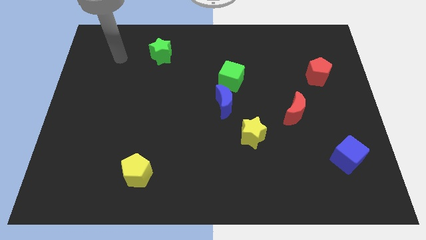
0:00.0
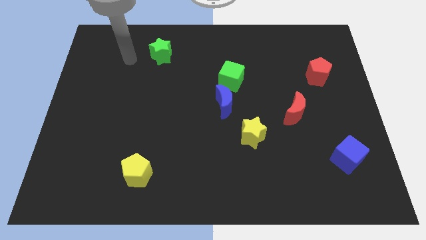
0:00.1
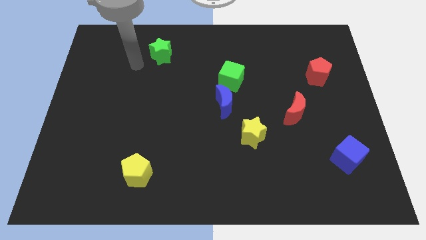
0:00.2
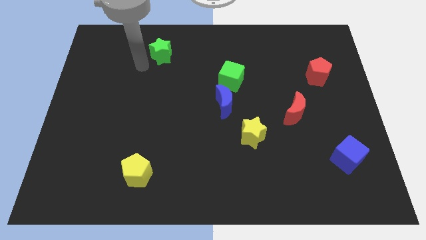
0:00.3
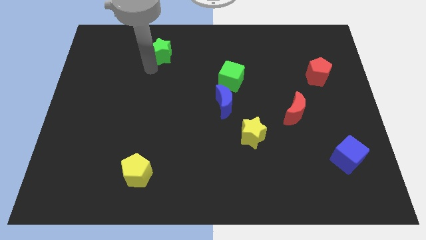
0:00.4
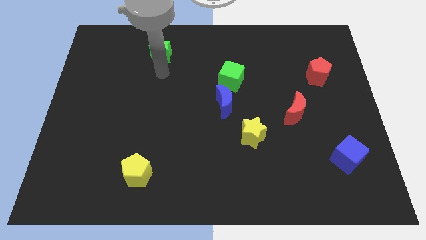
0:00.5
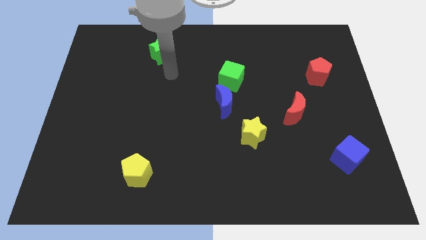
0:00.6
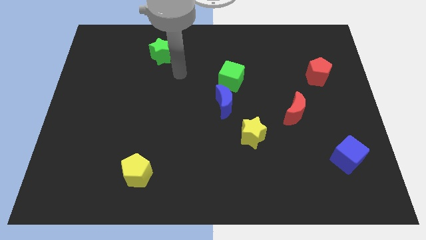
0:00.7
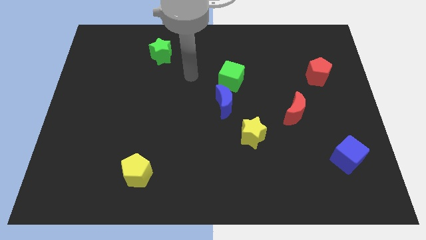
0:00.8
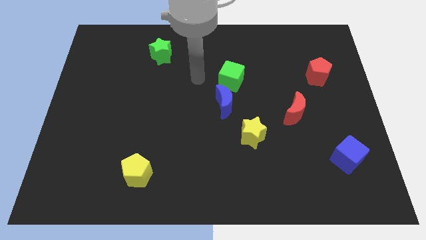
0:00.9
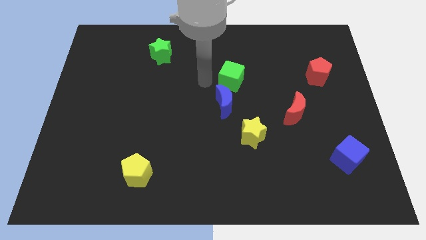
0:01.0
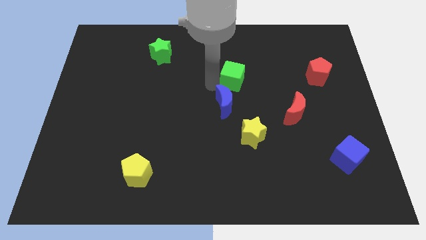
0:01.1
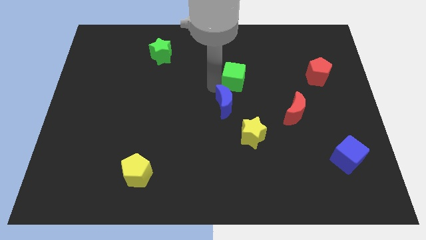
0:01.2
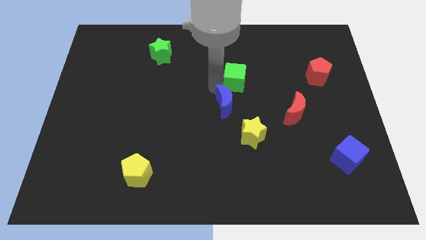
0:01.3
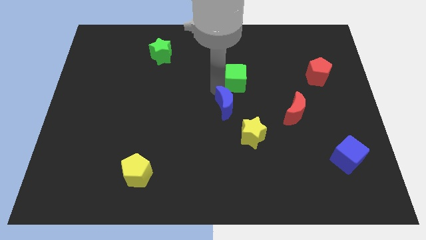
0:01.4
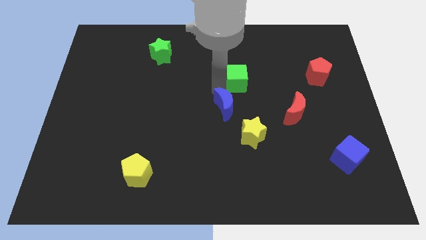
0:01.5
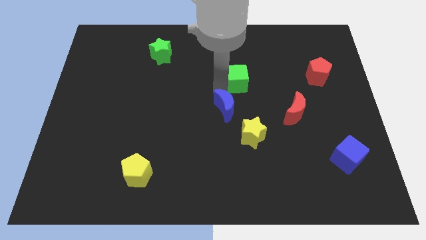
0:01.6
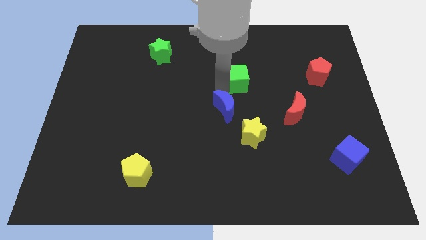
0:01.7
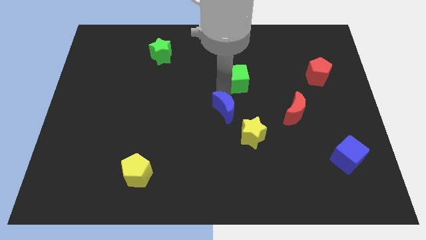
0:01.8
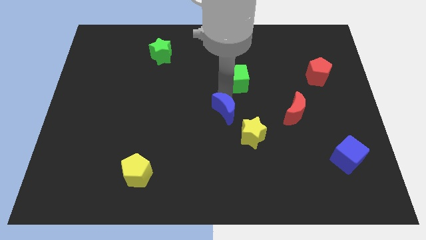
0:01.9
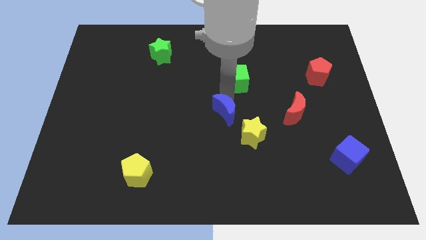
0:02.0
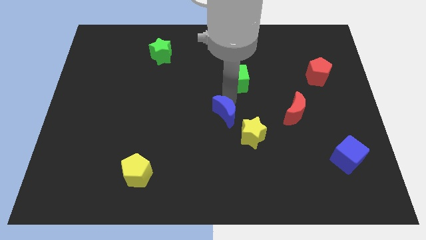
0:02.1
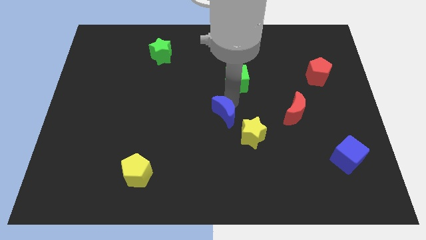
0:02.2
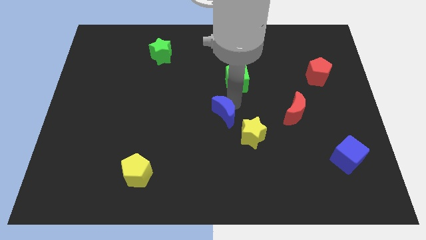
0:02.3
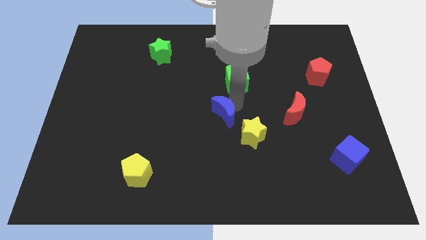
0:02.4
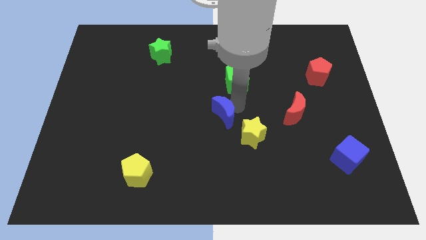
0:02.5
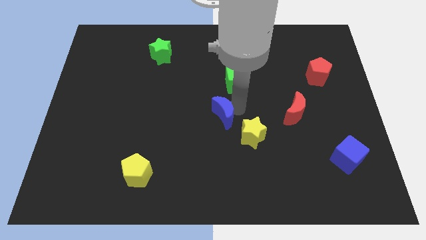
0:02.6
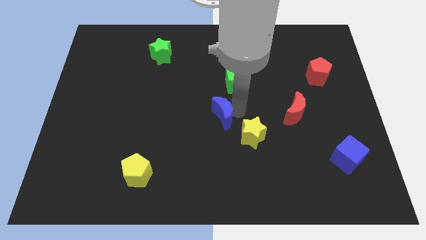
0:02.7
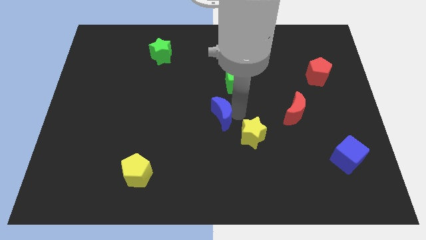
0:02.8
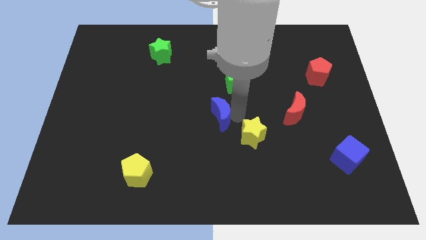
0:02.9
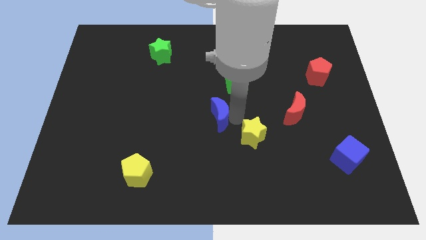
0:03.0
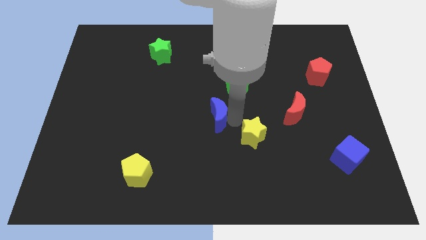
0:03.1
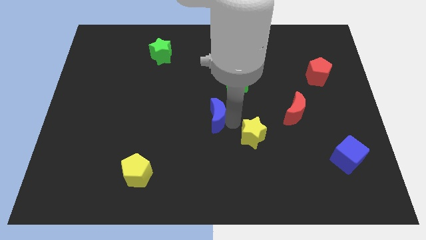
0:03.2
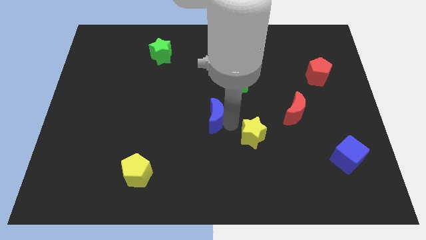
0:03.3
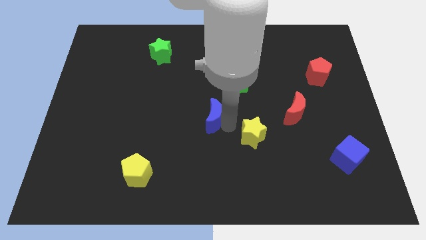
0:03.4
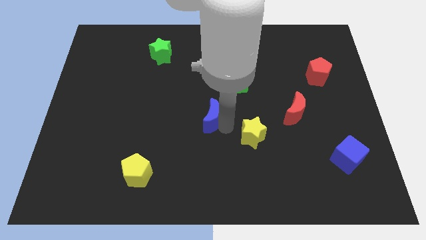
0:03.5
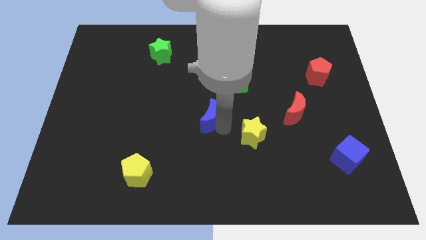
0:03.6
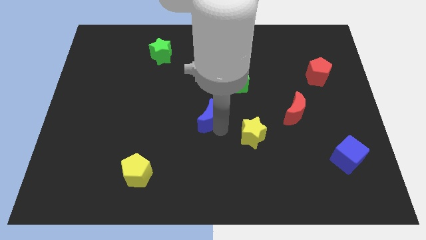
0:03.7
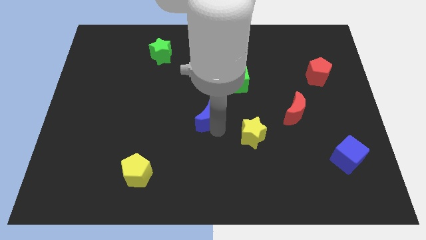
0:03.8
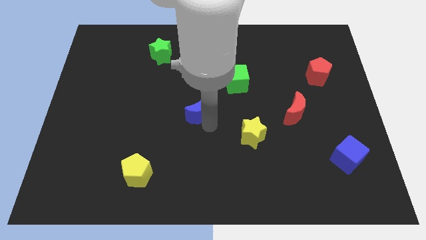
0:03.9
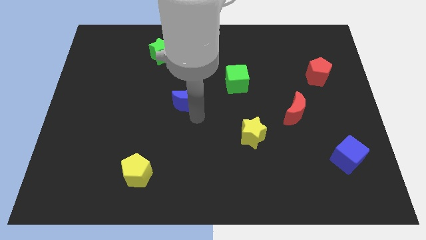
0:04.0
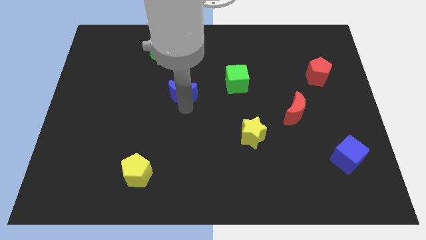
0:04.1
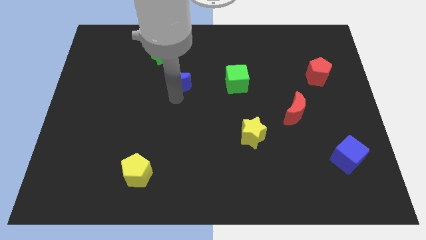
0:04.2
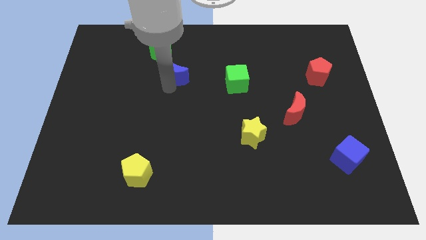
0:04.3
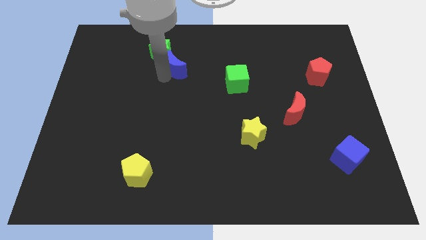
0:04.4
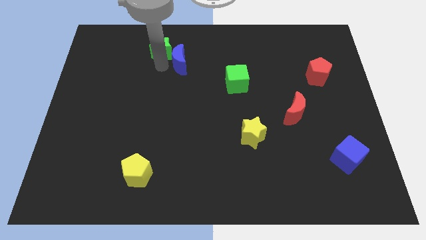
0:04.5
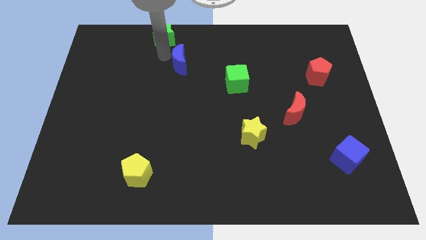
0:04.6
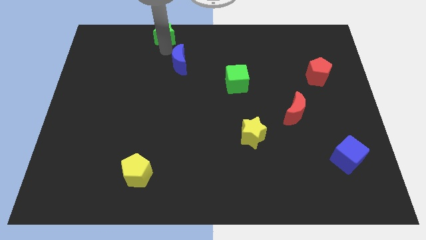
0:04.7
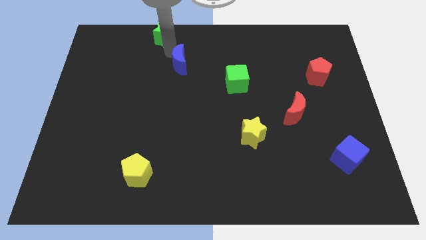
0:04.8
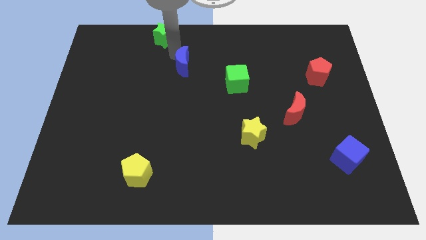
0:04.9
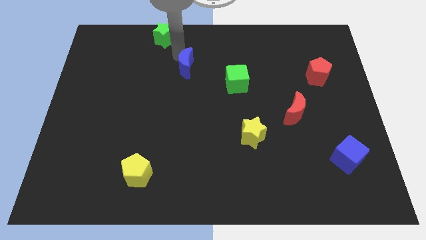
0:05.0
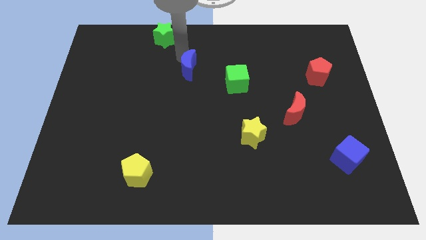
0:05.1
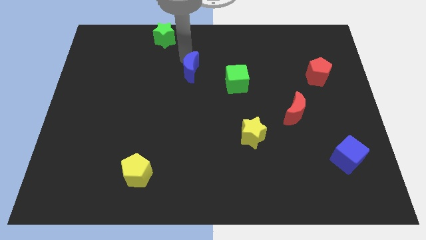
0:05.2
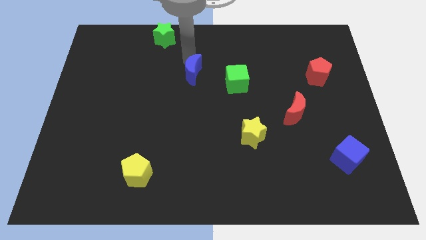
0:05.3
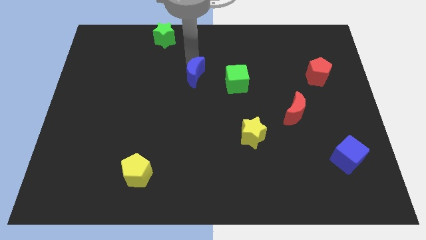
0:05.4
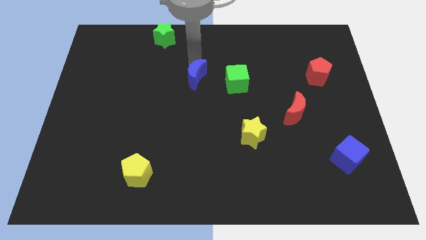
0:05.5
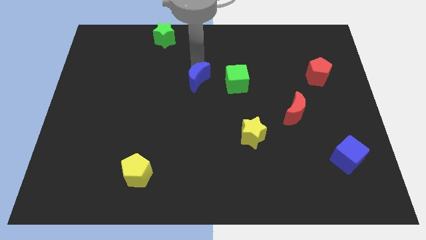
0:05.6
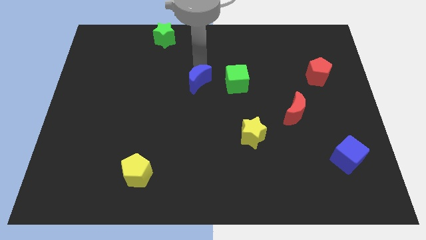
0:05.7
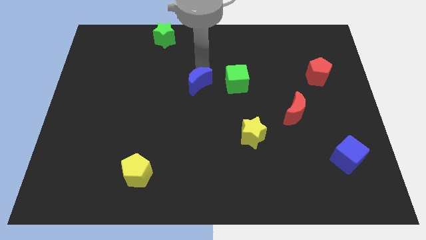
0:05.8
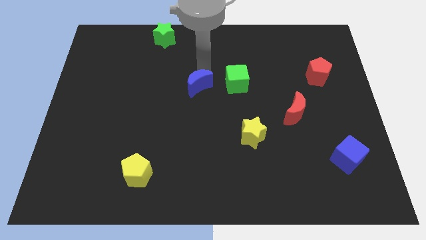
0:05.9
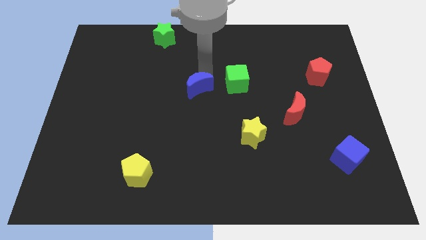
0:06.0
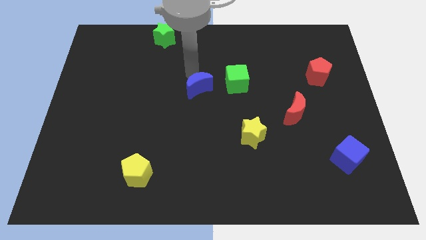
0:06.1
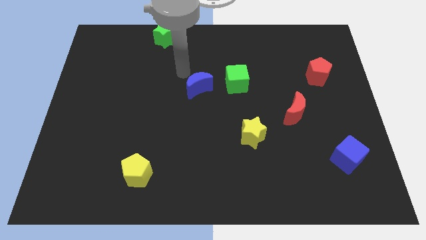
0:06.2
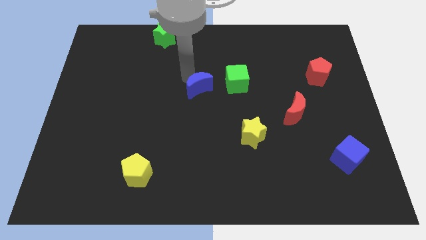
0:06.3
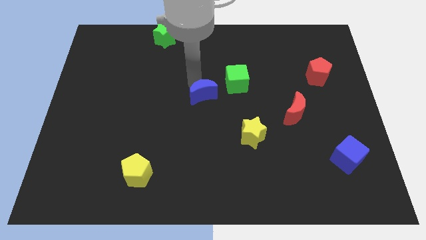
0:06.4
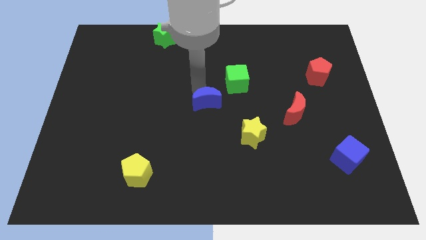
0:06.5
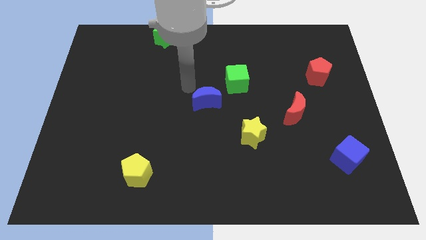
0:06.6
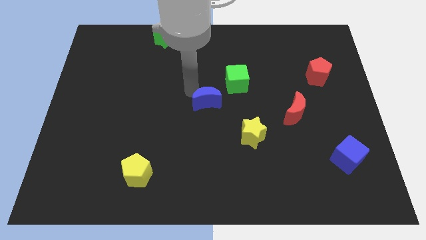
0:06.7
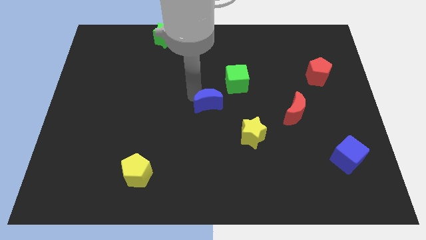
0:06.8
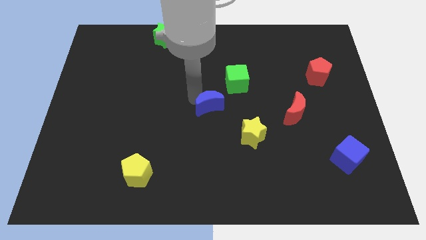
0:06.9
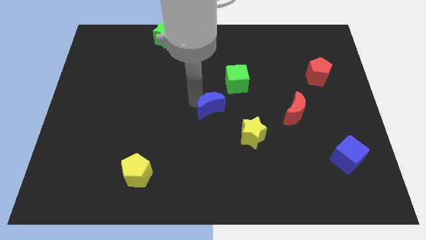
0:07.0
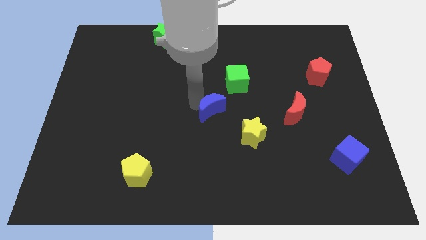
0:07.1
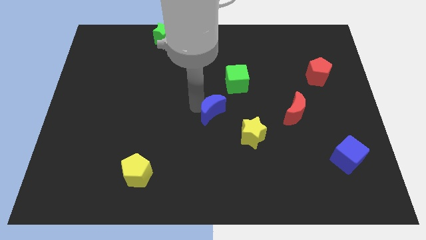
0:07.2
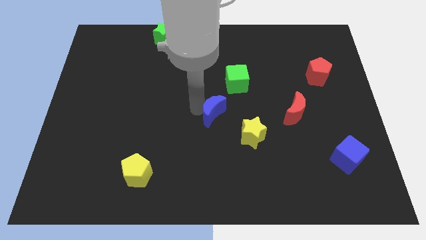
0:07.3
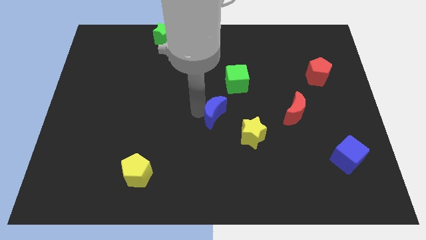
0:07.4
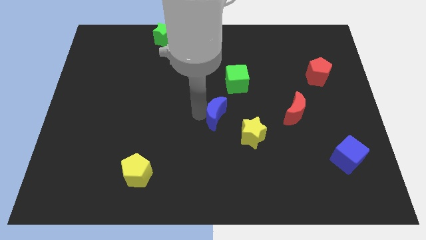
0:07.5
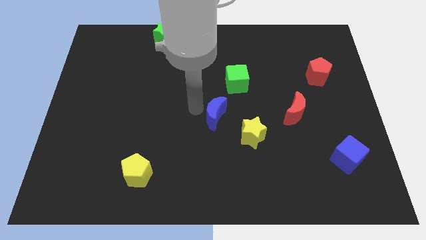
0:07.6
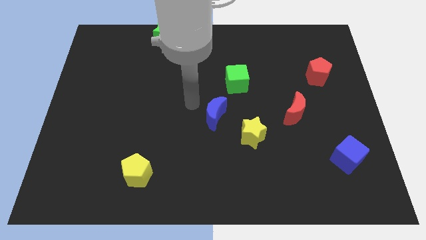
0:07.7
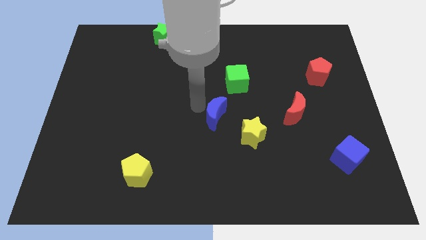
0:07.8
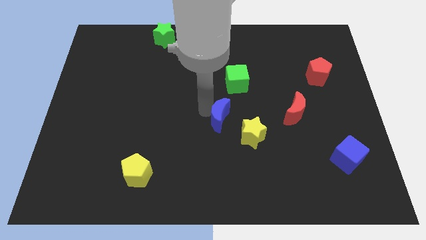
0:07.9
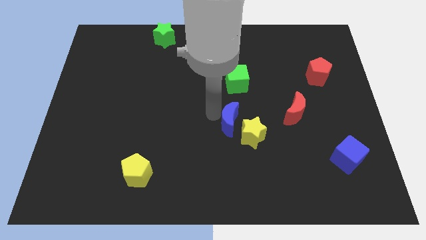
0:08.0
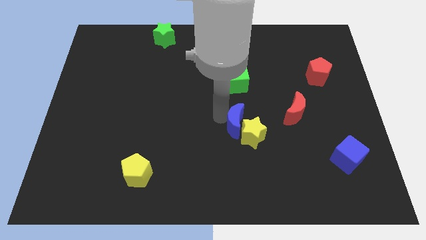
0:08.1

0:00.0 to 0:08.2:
put the blue moon towards the yellow star

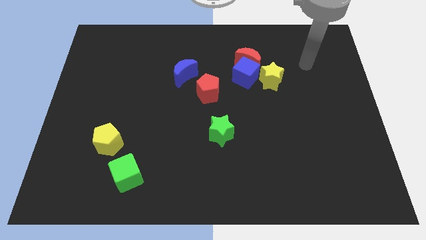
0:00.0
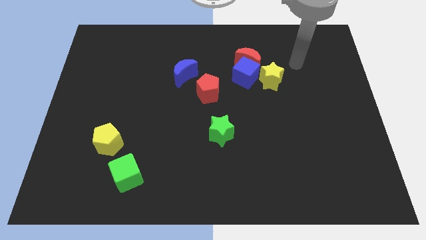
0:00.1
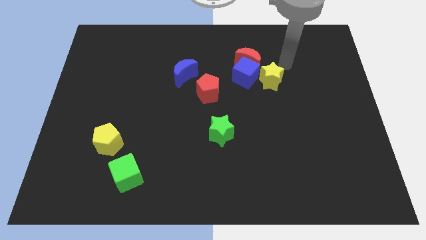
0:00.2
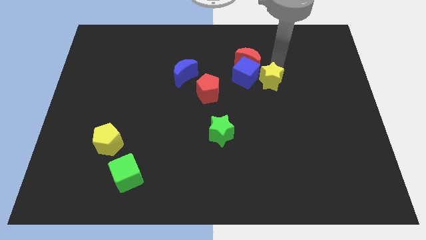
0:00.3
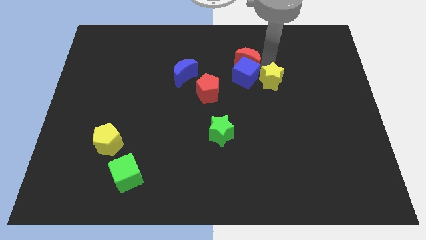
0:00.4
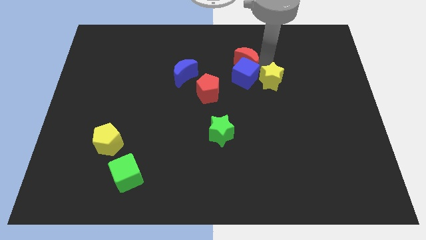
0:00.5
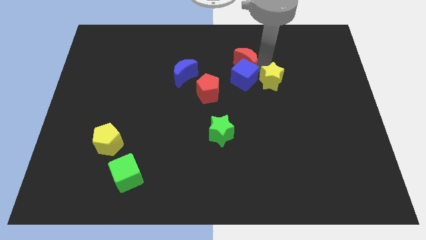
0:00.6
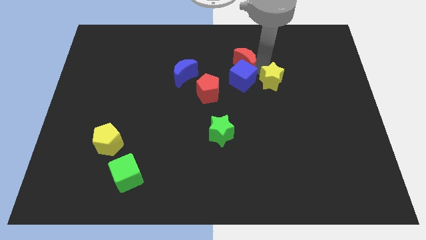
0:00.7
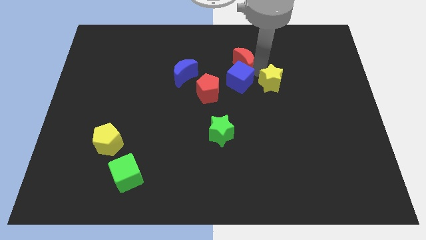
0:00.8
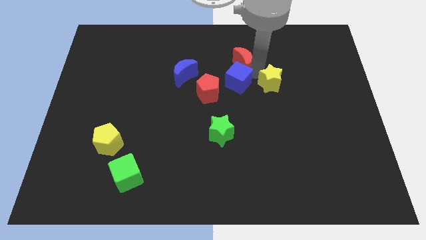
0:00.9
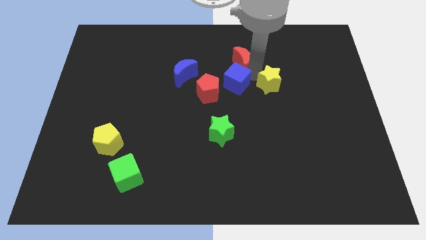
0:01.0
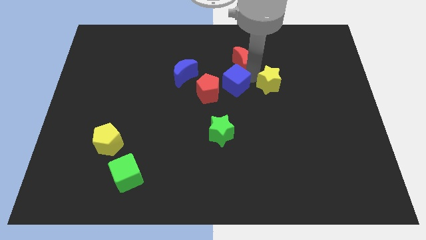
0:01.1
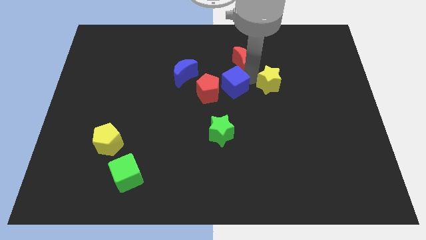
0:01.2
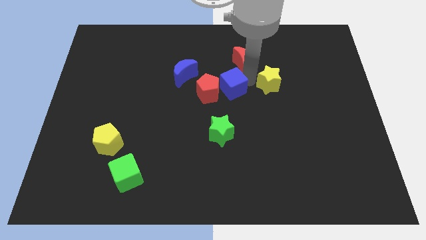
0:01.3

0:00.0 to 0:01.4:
put the blue cube next to the red pentagon
